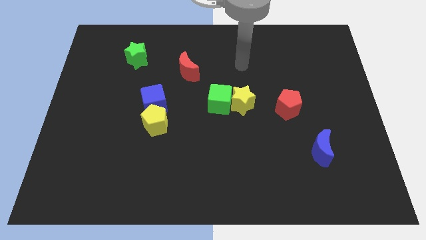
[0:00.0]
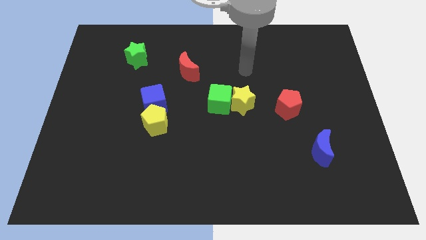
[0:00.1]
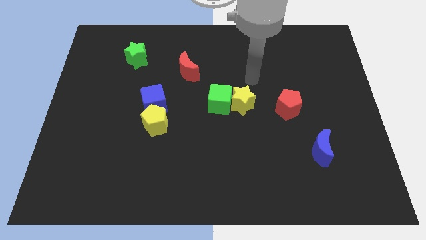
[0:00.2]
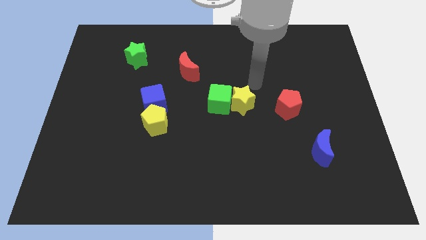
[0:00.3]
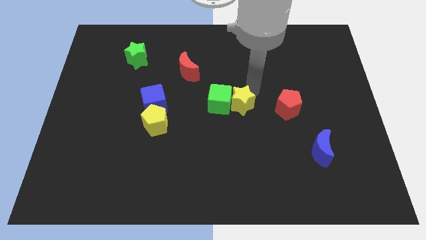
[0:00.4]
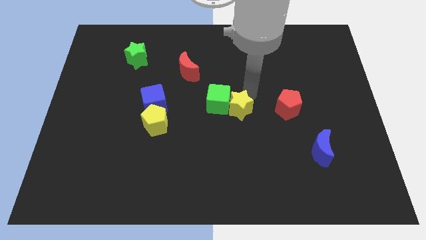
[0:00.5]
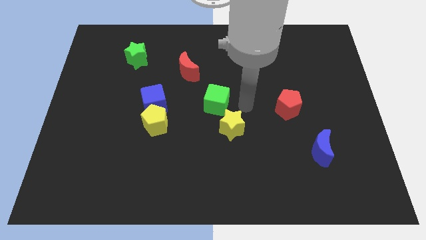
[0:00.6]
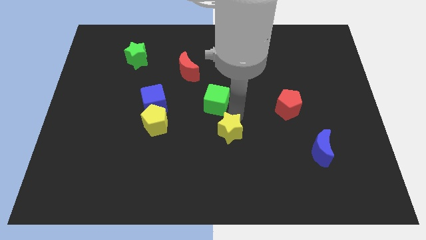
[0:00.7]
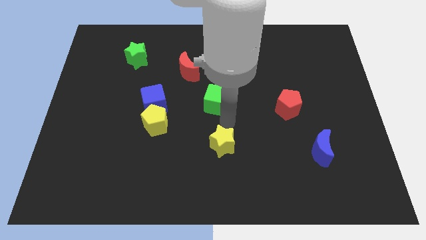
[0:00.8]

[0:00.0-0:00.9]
pull the green cube apart from the yellow star

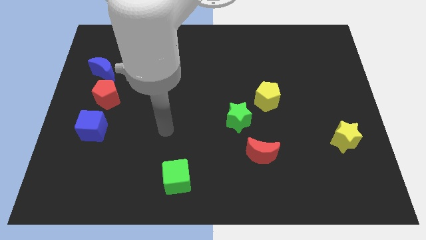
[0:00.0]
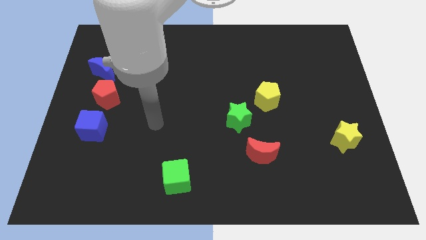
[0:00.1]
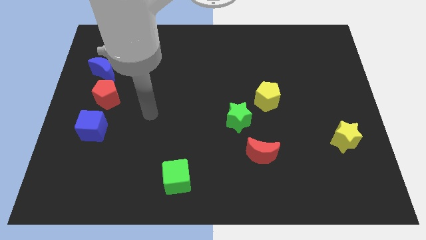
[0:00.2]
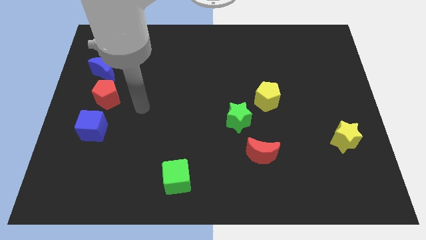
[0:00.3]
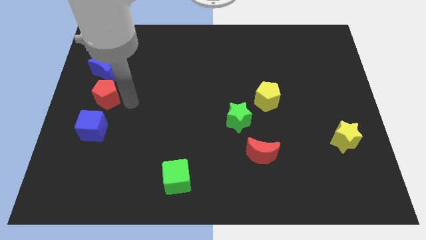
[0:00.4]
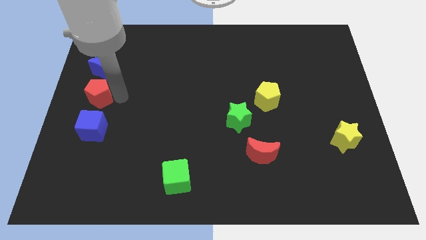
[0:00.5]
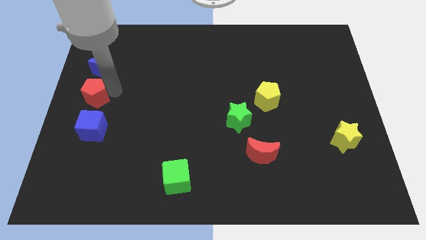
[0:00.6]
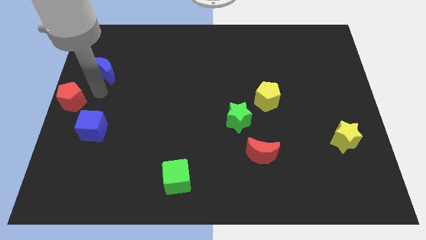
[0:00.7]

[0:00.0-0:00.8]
separate the blue moon from the red pentagon

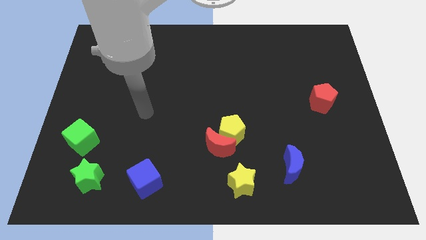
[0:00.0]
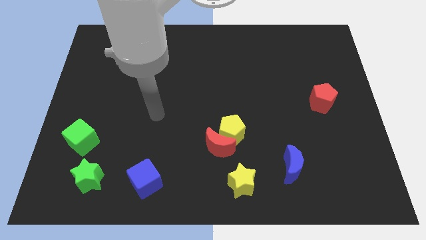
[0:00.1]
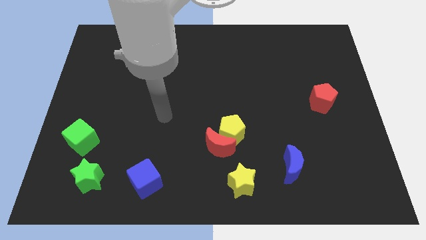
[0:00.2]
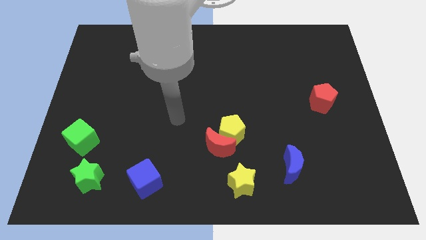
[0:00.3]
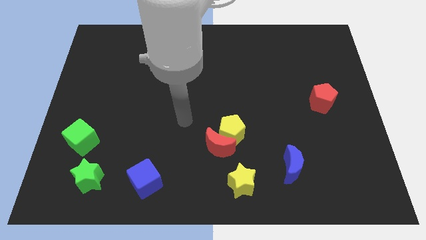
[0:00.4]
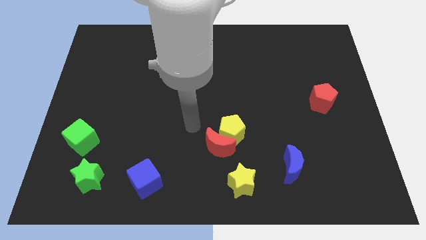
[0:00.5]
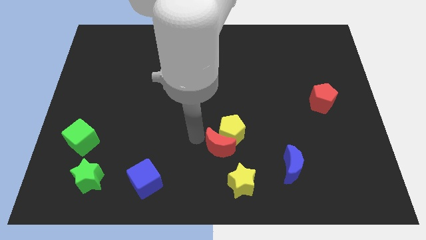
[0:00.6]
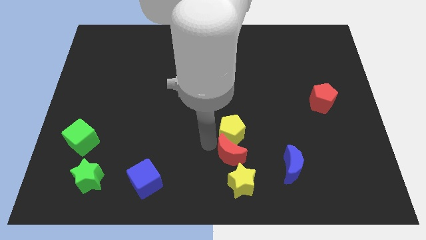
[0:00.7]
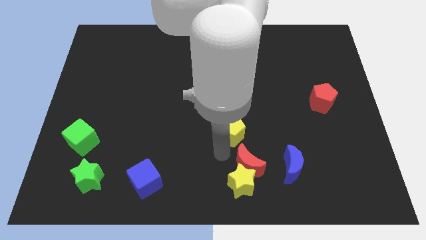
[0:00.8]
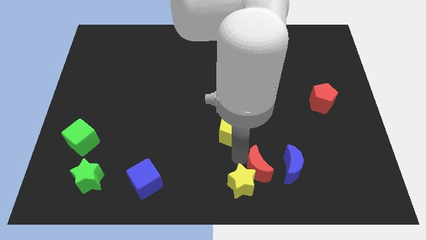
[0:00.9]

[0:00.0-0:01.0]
pull the yellow pentagon apart from the red moon

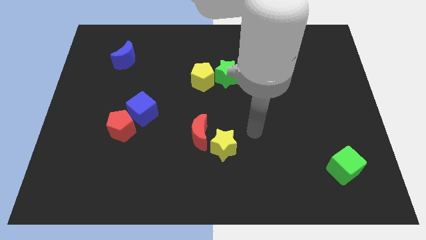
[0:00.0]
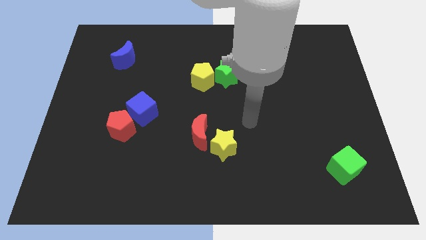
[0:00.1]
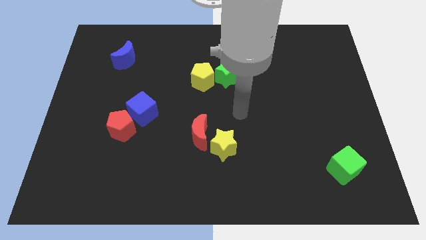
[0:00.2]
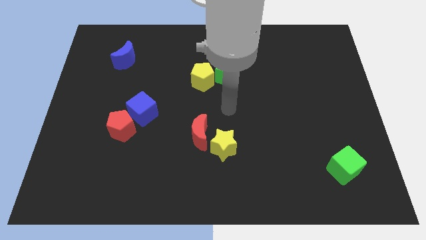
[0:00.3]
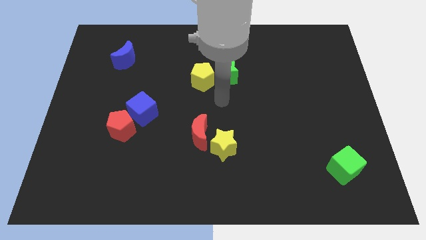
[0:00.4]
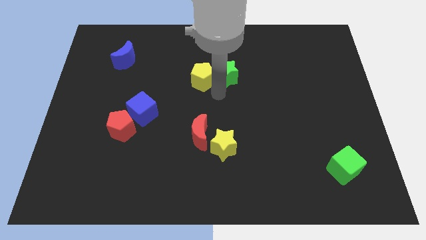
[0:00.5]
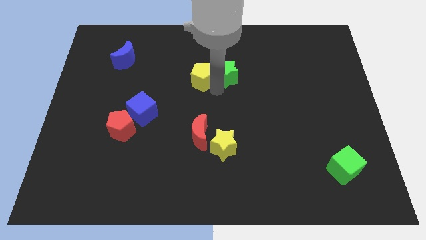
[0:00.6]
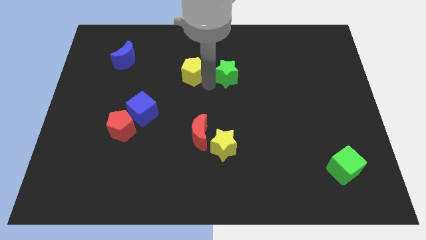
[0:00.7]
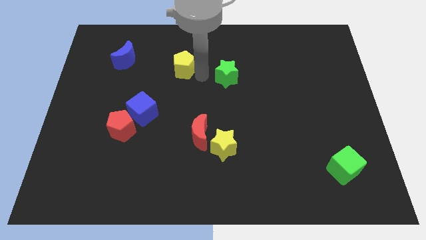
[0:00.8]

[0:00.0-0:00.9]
move the green star away from the yellow pentagon

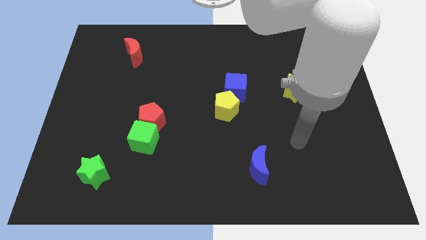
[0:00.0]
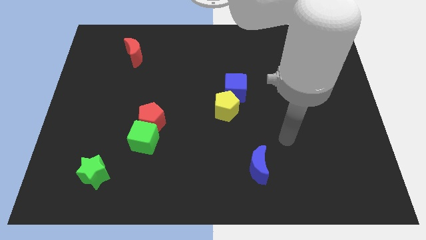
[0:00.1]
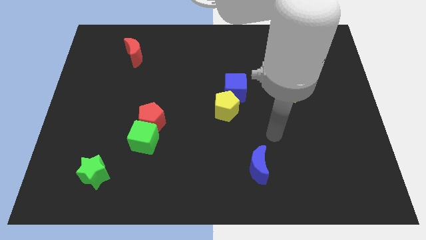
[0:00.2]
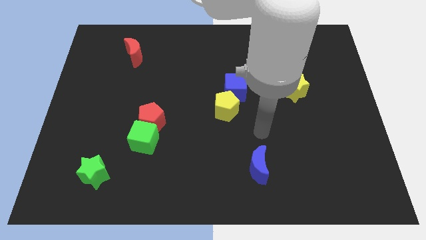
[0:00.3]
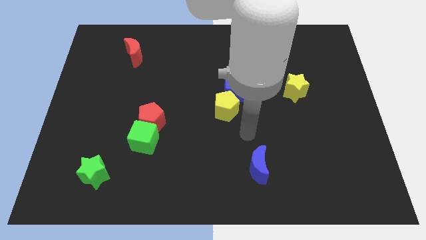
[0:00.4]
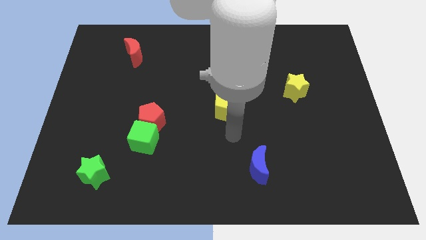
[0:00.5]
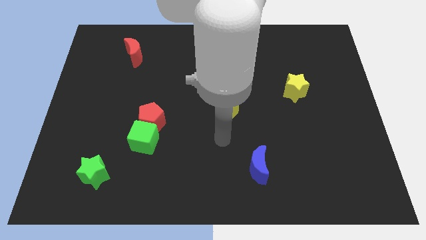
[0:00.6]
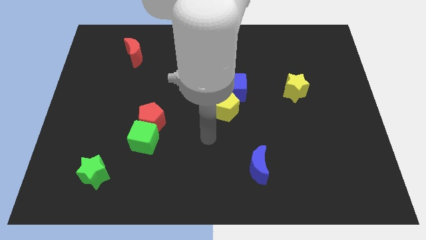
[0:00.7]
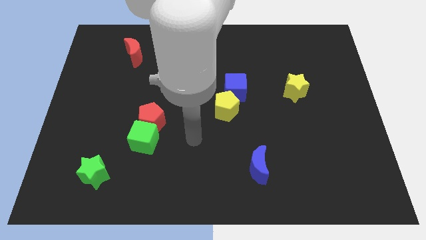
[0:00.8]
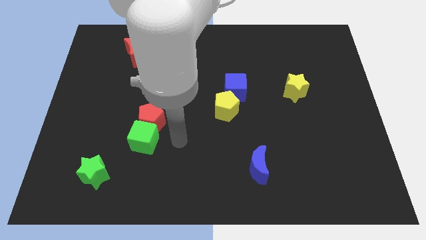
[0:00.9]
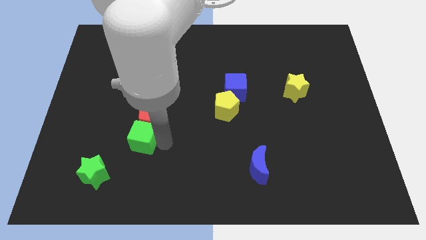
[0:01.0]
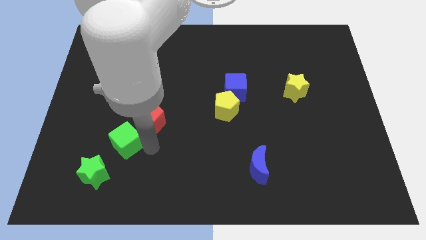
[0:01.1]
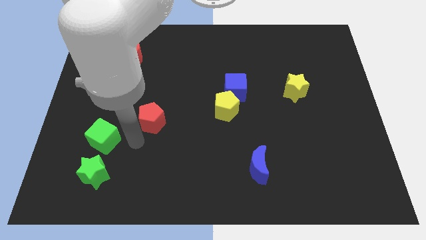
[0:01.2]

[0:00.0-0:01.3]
separate the red pentagon from the green cube

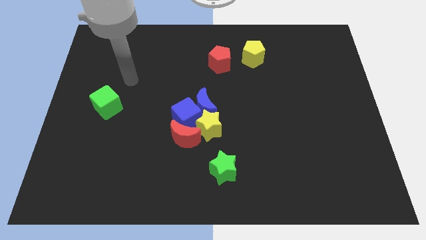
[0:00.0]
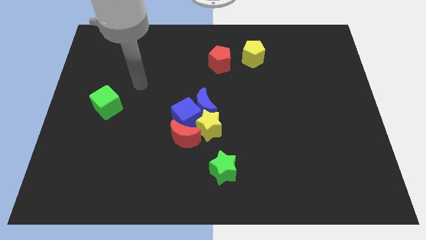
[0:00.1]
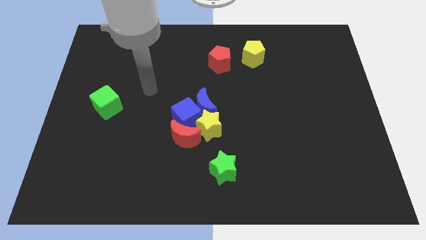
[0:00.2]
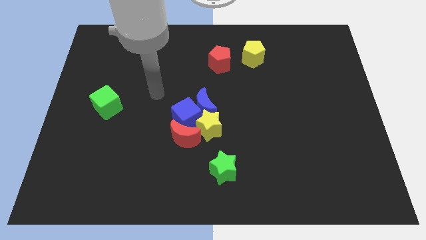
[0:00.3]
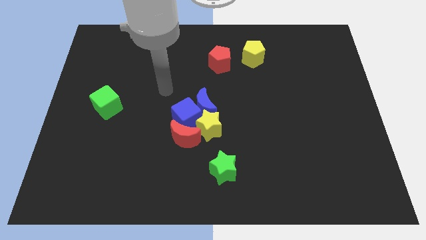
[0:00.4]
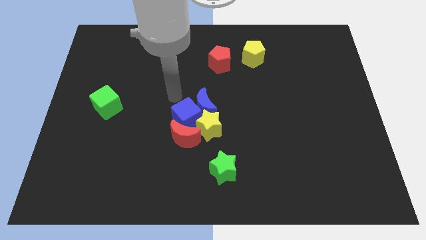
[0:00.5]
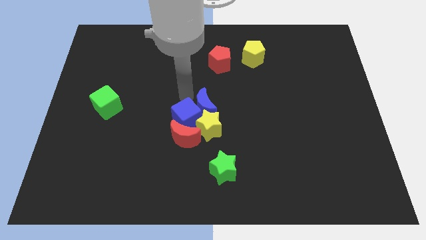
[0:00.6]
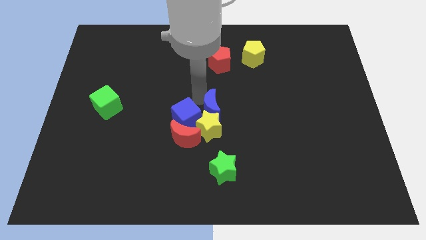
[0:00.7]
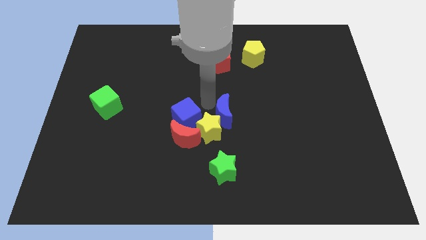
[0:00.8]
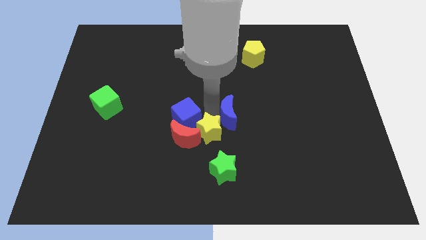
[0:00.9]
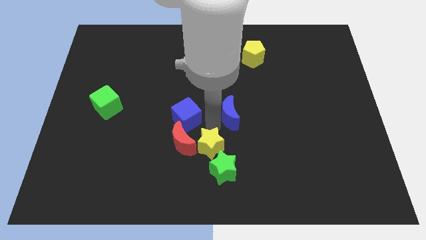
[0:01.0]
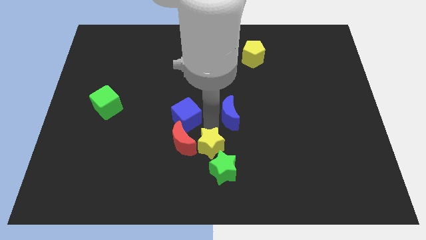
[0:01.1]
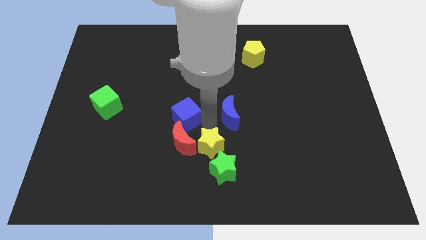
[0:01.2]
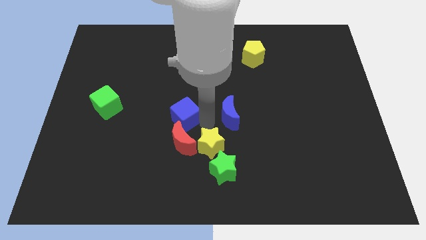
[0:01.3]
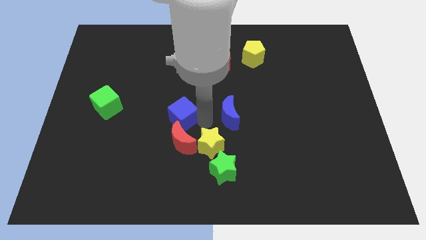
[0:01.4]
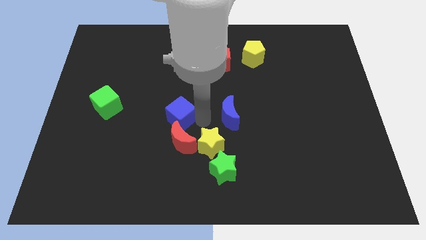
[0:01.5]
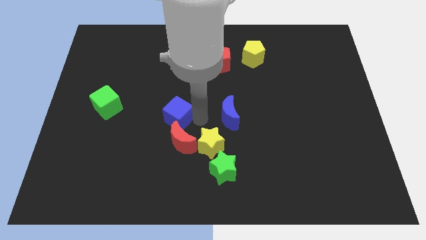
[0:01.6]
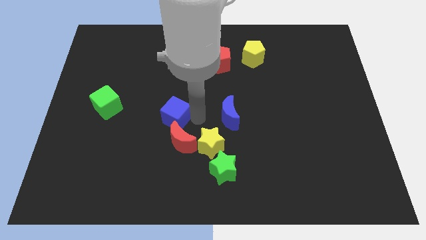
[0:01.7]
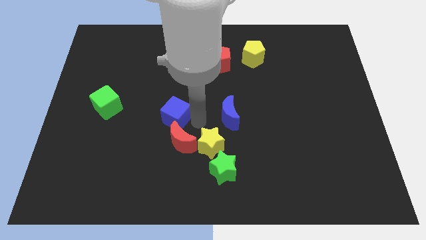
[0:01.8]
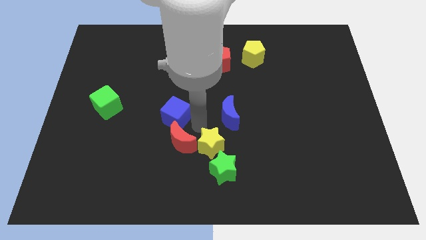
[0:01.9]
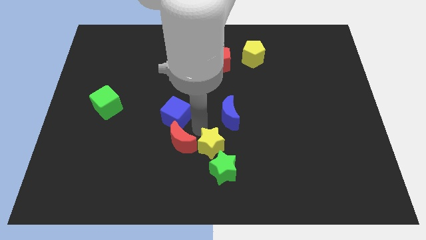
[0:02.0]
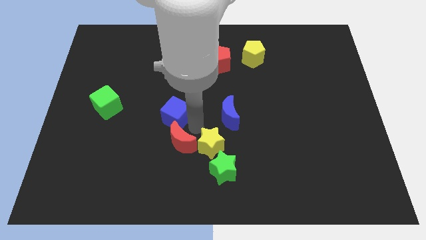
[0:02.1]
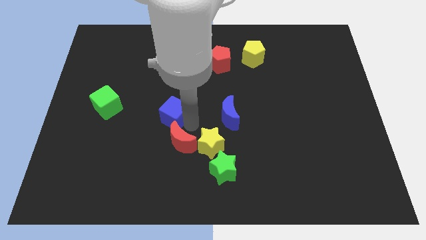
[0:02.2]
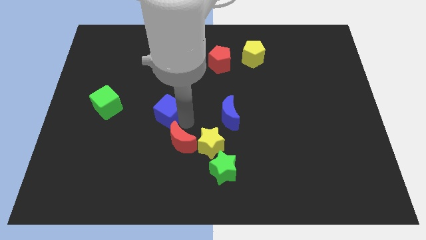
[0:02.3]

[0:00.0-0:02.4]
move the blue cube away from the group

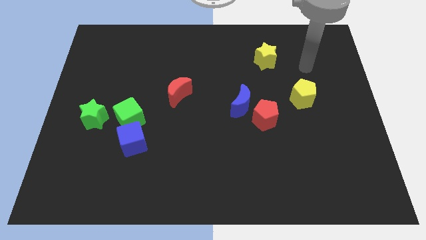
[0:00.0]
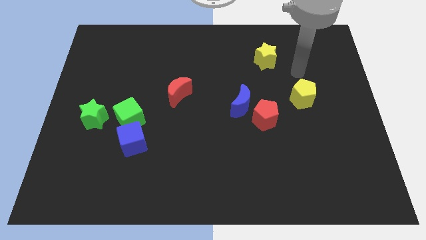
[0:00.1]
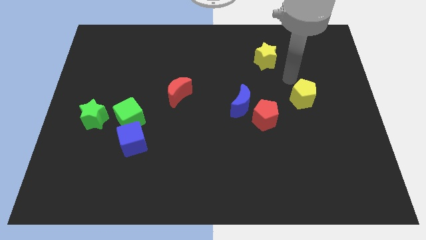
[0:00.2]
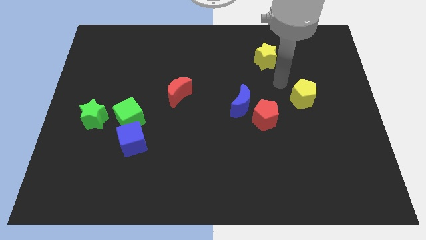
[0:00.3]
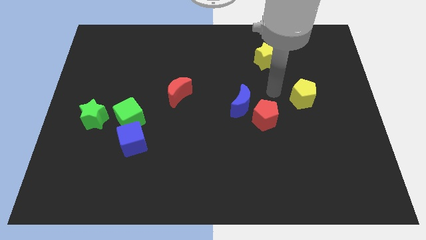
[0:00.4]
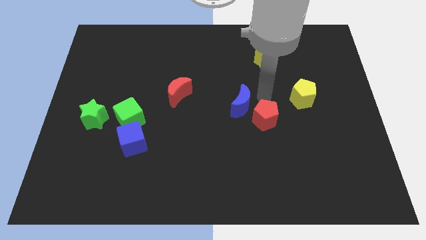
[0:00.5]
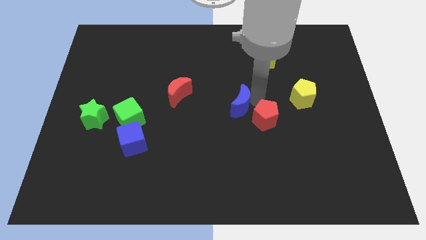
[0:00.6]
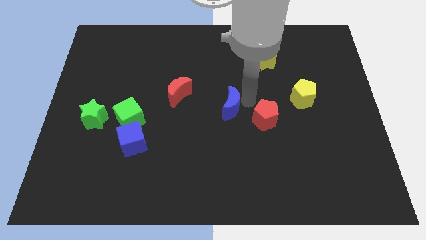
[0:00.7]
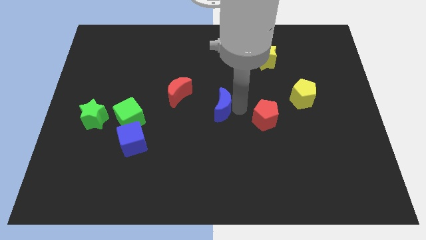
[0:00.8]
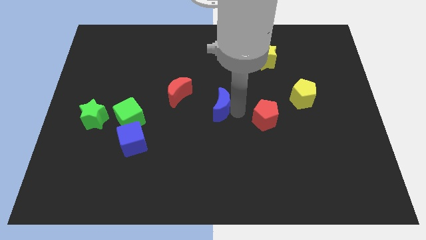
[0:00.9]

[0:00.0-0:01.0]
move the red pentagon away from the blue moon

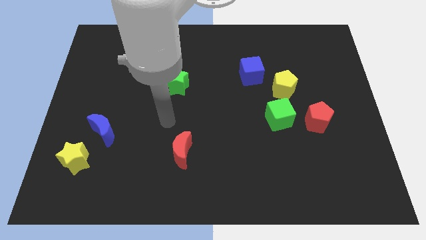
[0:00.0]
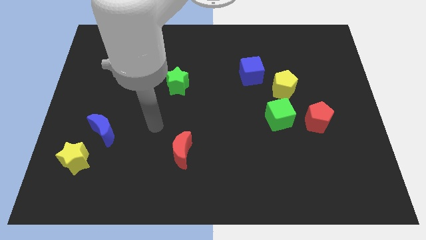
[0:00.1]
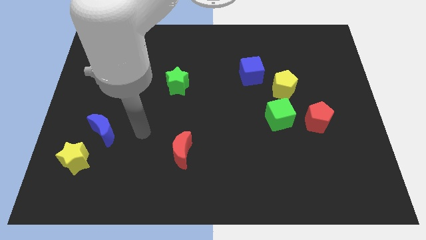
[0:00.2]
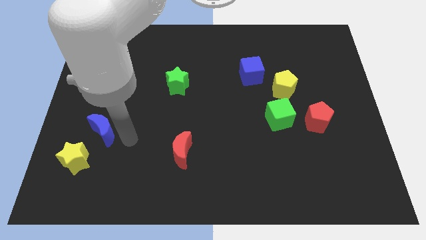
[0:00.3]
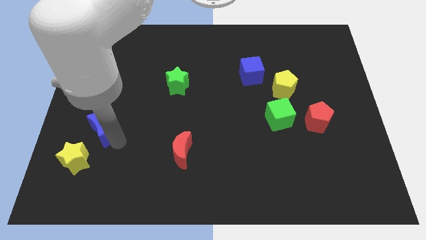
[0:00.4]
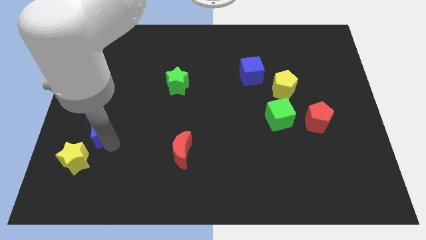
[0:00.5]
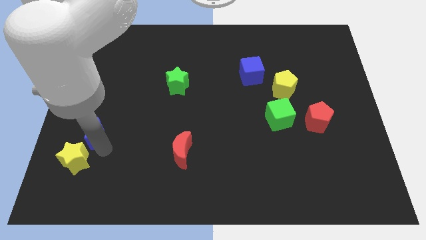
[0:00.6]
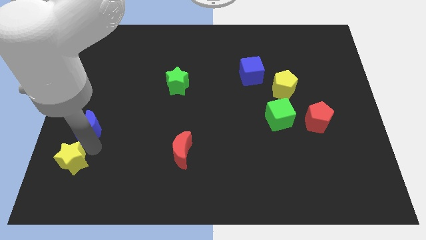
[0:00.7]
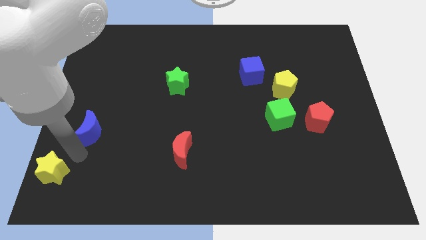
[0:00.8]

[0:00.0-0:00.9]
pull the blue moon apart from the yellow star
